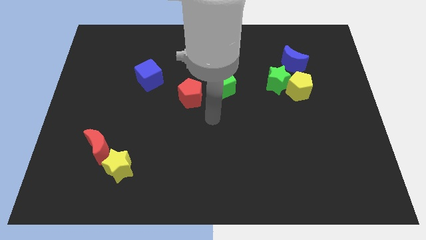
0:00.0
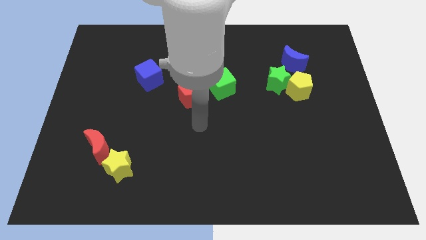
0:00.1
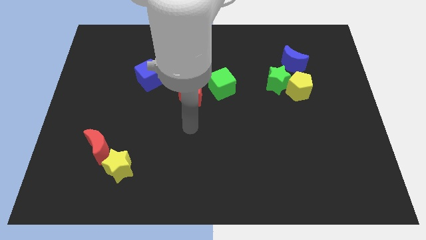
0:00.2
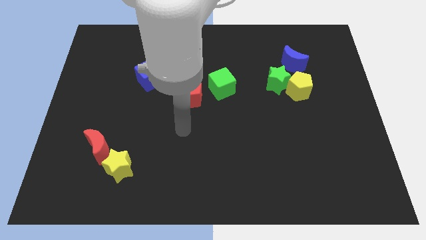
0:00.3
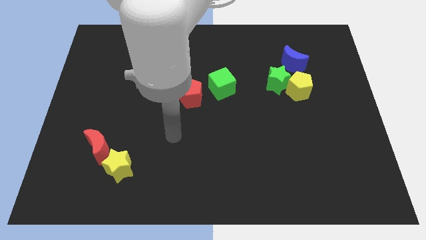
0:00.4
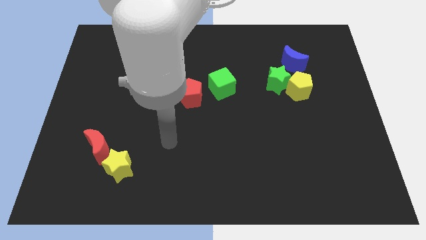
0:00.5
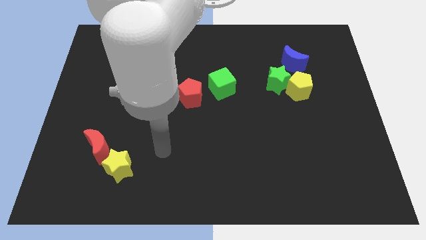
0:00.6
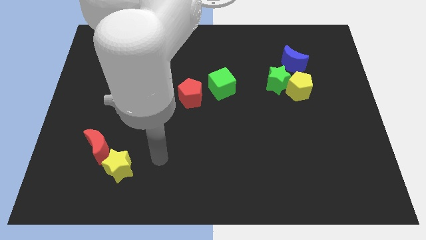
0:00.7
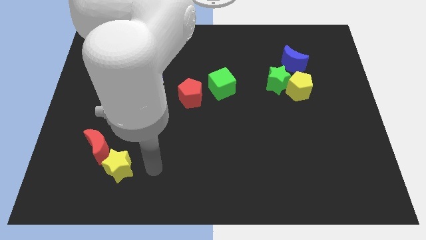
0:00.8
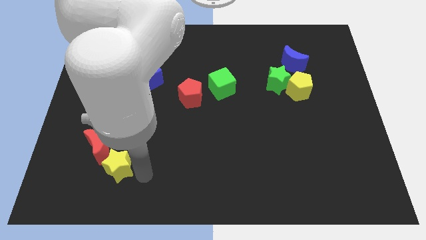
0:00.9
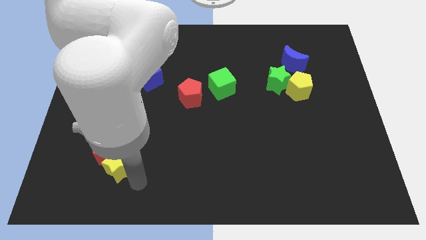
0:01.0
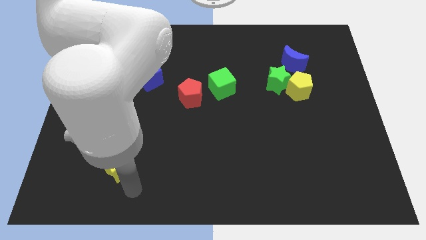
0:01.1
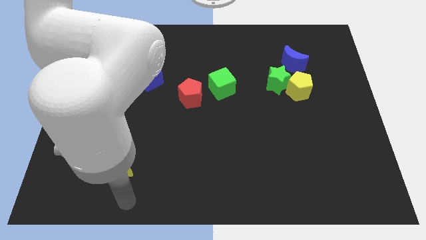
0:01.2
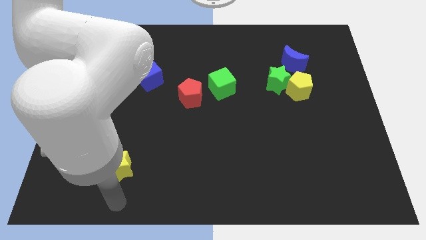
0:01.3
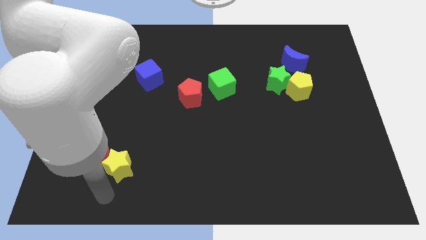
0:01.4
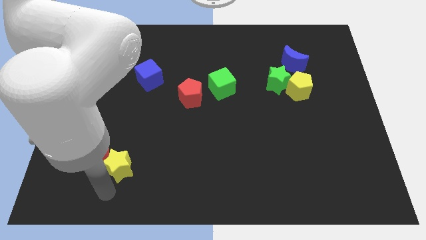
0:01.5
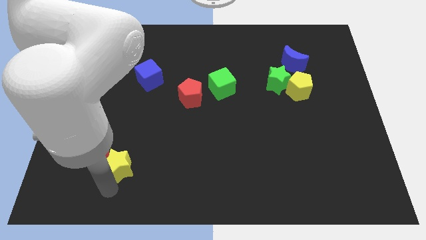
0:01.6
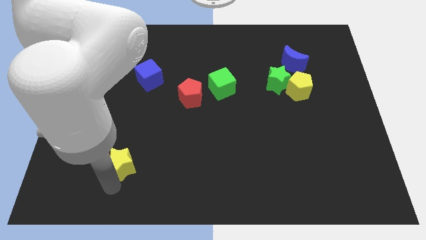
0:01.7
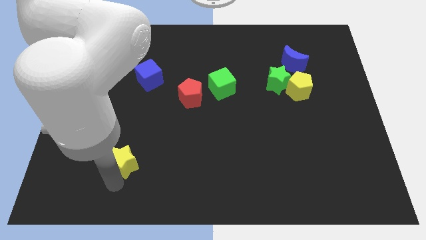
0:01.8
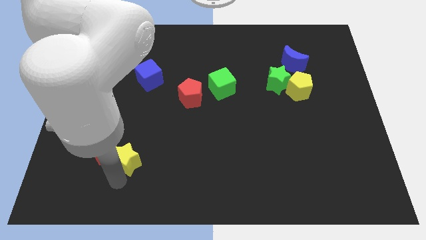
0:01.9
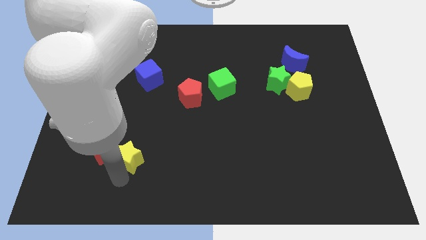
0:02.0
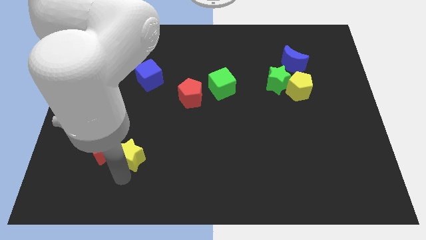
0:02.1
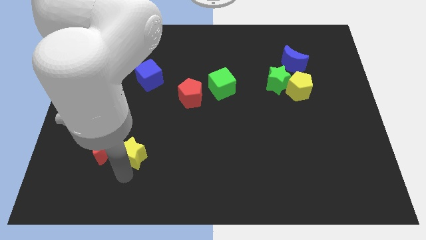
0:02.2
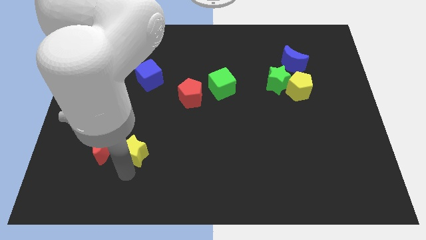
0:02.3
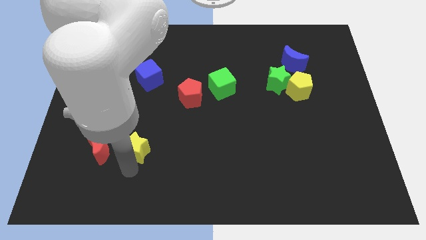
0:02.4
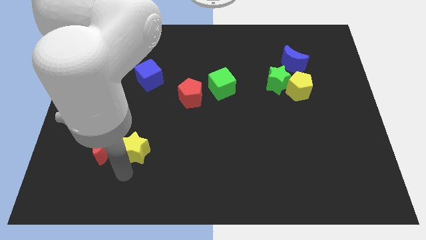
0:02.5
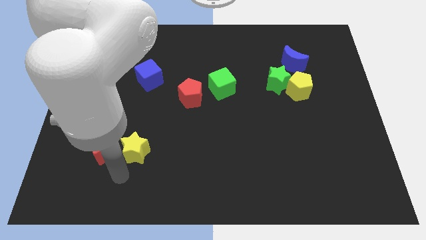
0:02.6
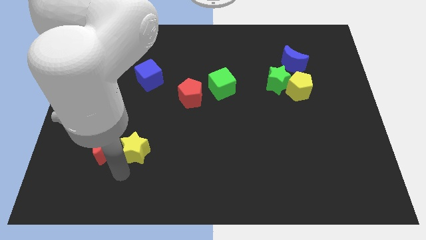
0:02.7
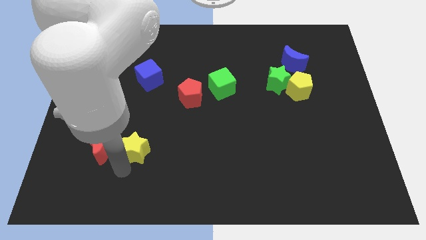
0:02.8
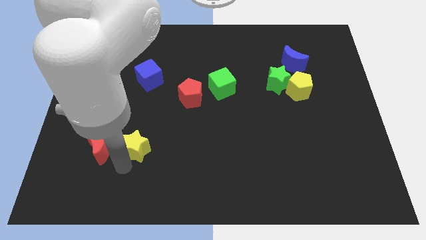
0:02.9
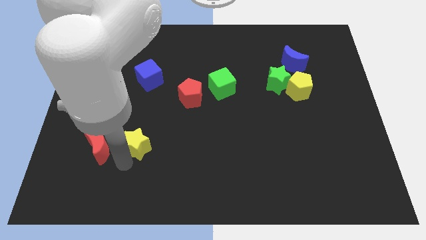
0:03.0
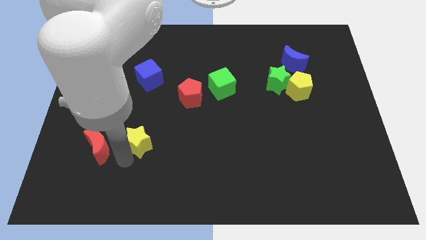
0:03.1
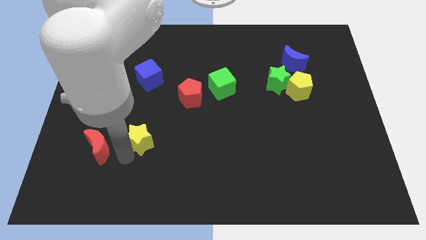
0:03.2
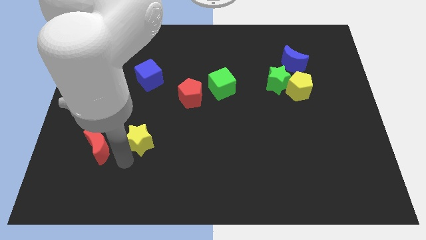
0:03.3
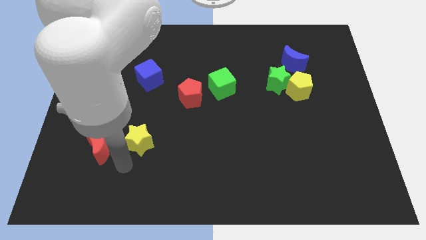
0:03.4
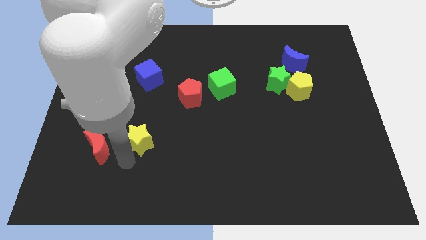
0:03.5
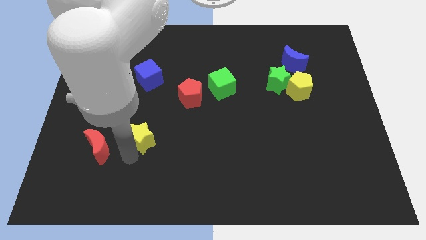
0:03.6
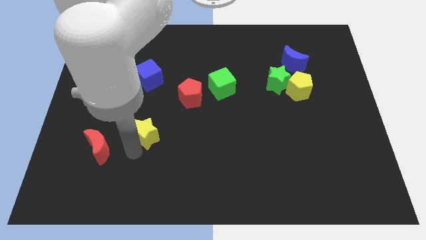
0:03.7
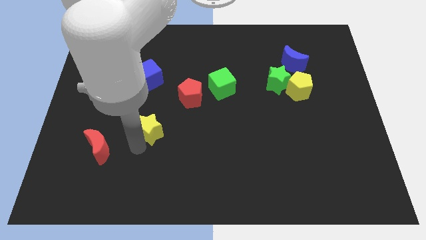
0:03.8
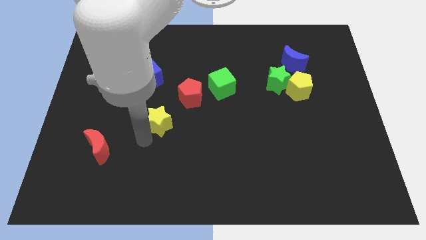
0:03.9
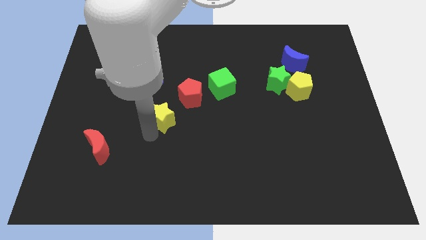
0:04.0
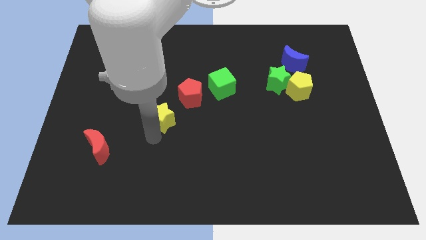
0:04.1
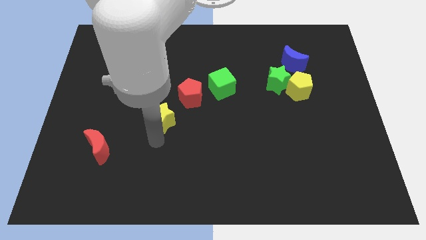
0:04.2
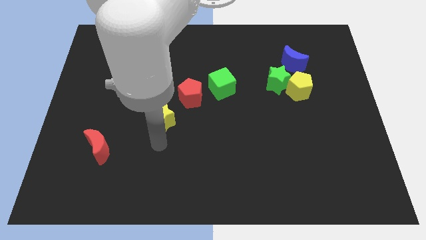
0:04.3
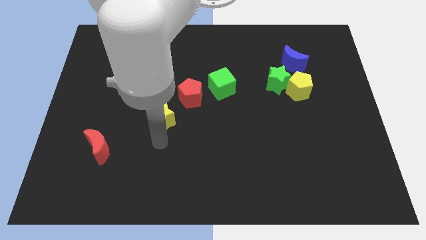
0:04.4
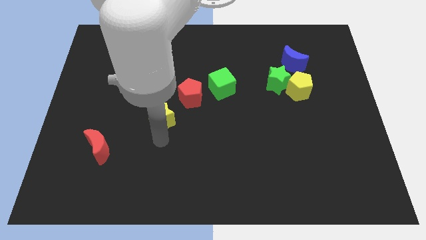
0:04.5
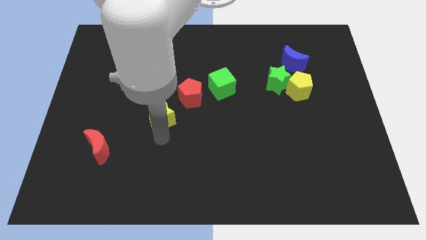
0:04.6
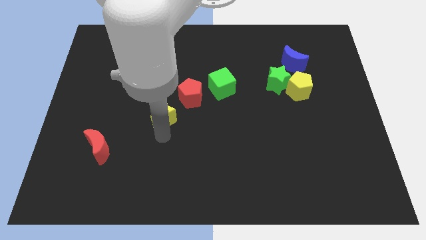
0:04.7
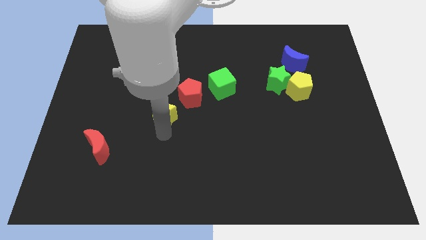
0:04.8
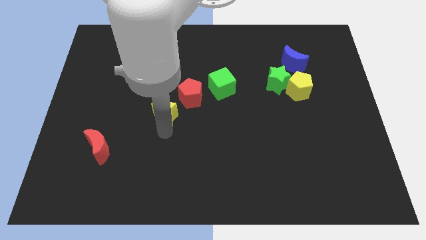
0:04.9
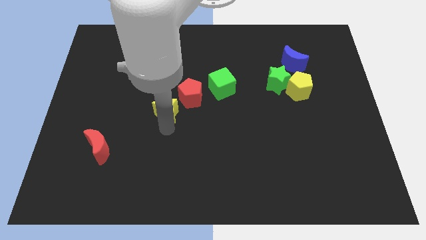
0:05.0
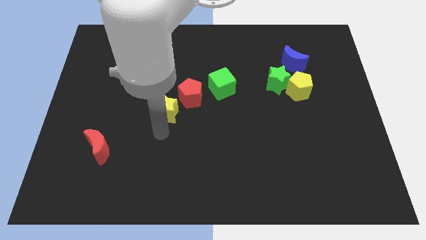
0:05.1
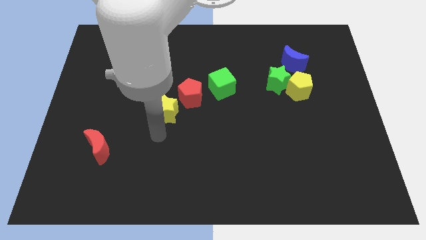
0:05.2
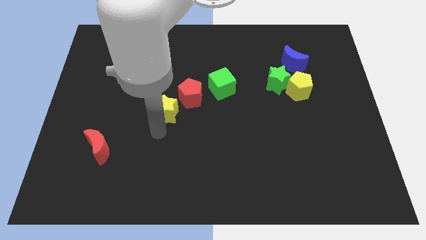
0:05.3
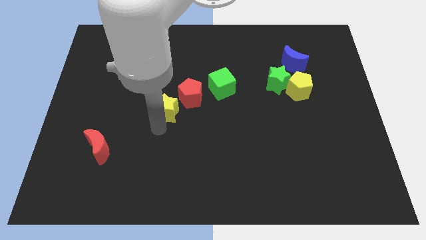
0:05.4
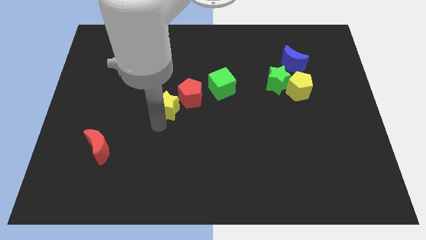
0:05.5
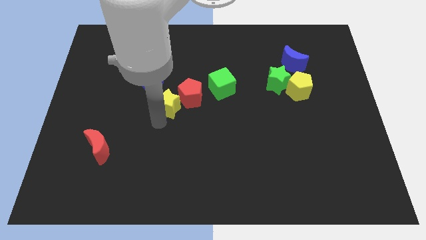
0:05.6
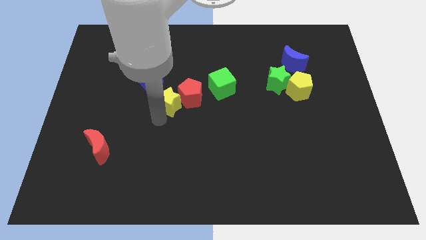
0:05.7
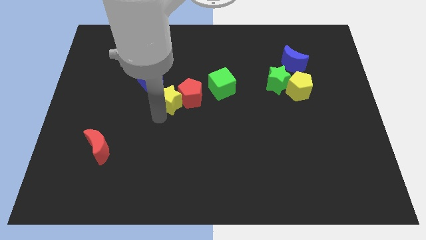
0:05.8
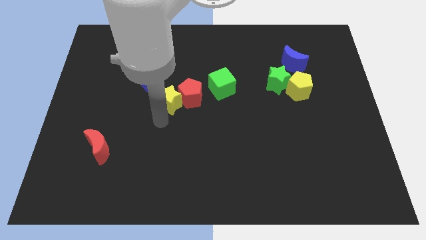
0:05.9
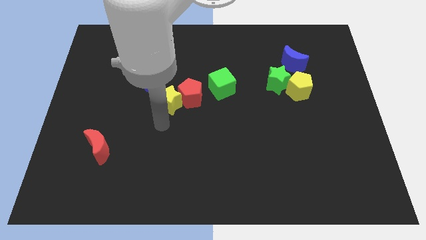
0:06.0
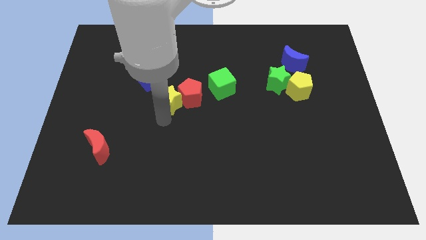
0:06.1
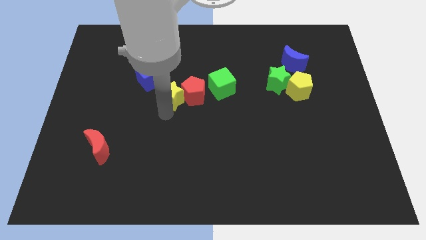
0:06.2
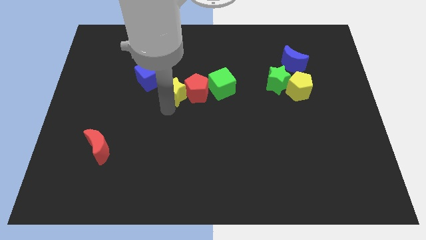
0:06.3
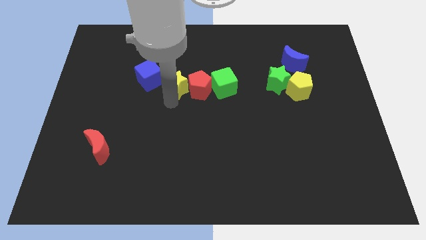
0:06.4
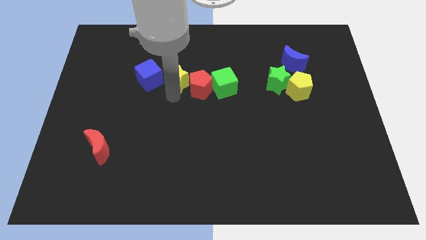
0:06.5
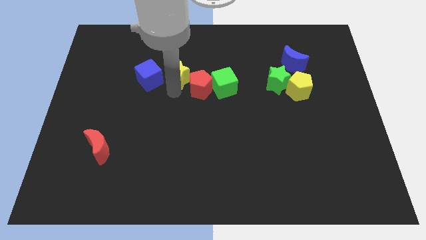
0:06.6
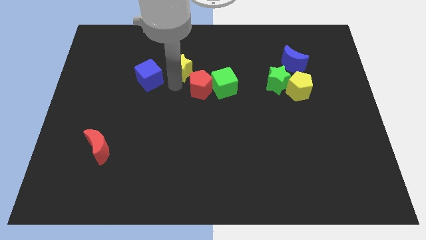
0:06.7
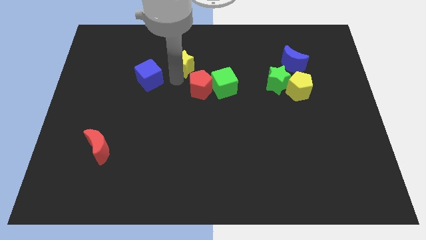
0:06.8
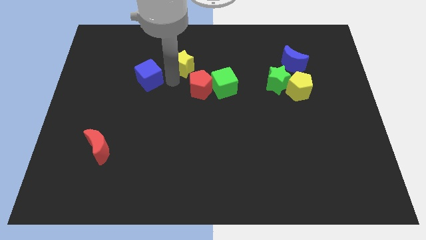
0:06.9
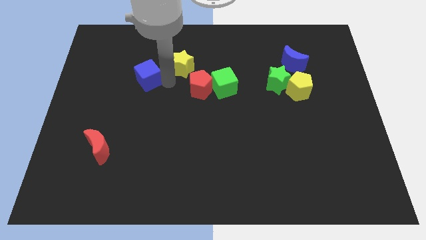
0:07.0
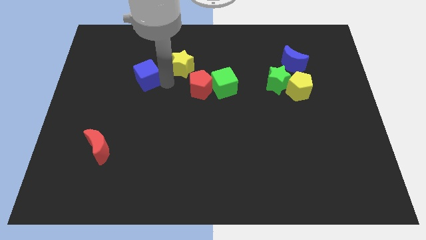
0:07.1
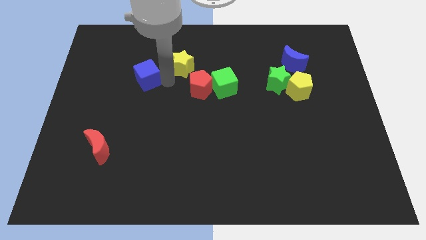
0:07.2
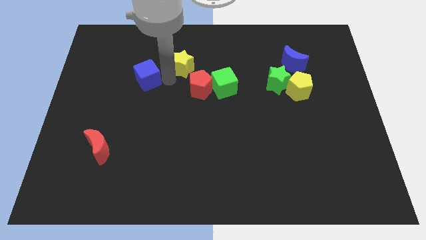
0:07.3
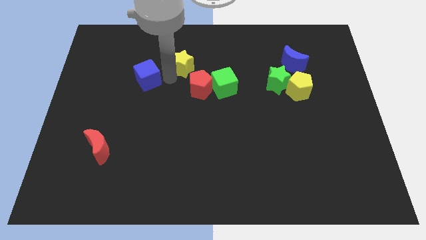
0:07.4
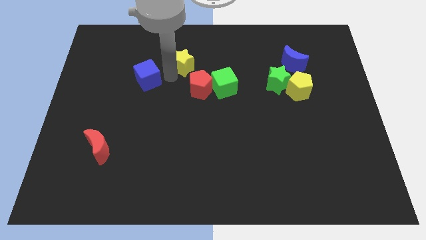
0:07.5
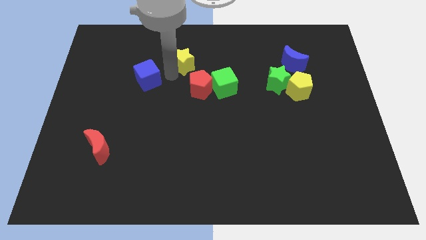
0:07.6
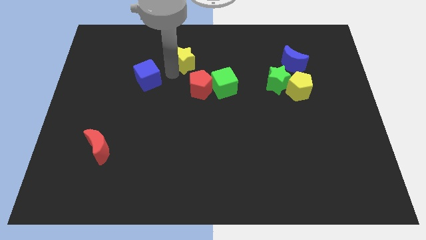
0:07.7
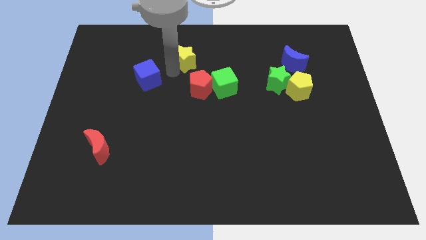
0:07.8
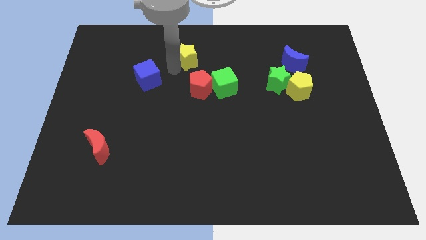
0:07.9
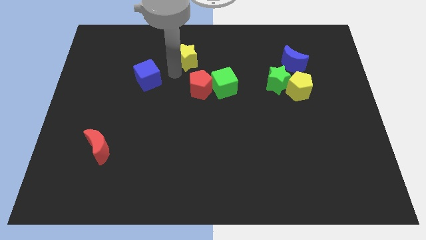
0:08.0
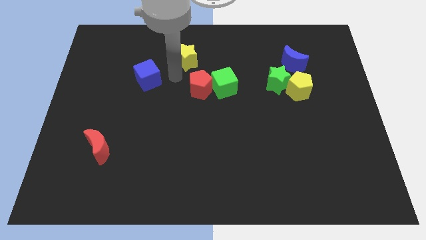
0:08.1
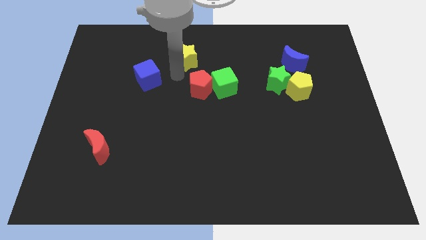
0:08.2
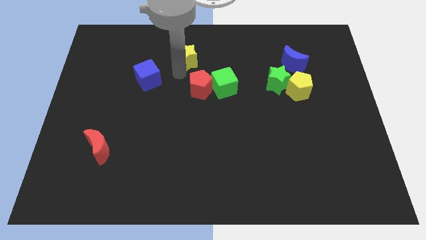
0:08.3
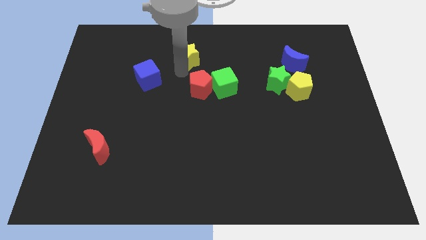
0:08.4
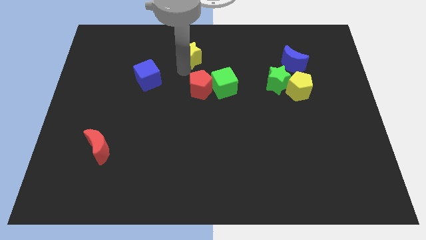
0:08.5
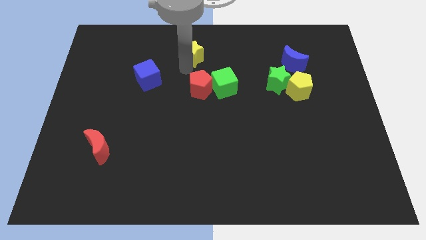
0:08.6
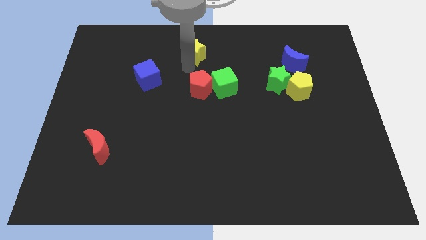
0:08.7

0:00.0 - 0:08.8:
push the yellow star to the top side
